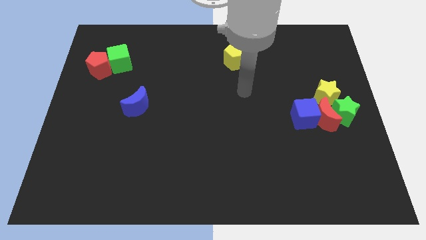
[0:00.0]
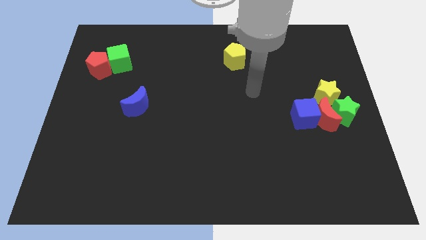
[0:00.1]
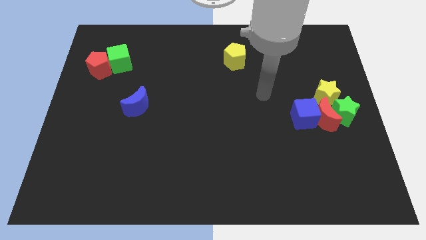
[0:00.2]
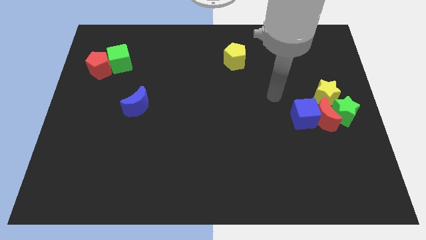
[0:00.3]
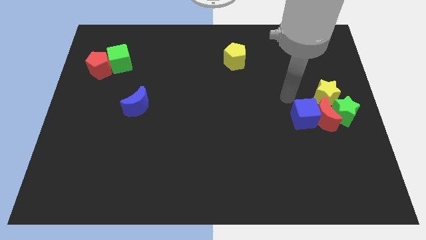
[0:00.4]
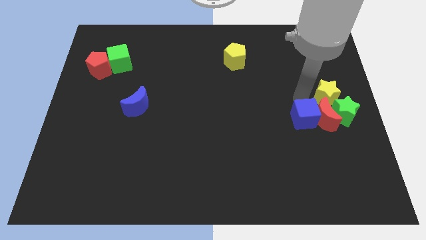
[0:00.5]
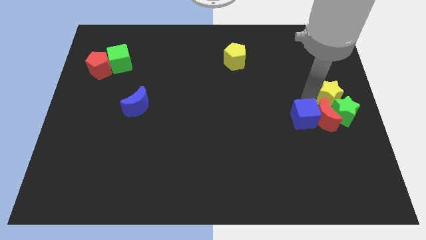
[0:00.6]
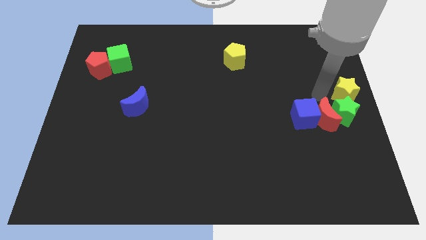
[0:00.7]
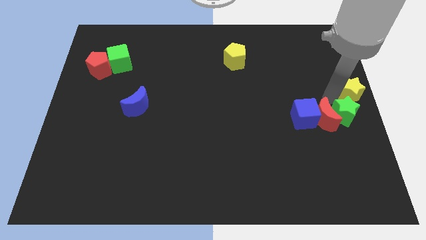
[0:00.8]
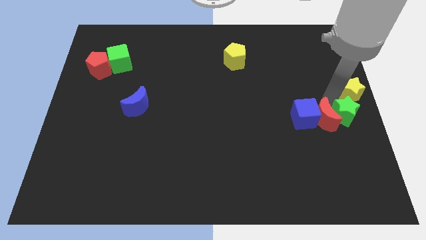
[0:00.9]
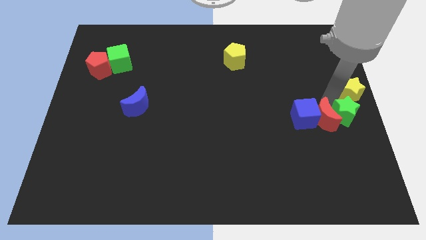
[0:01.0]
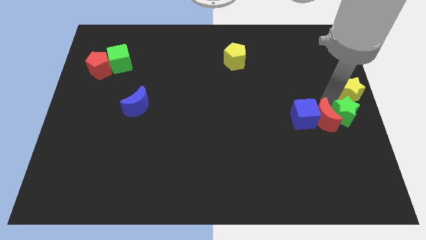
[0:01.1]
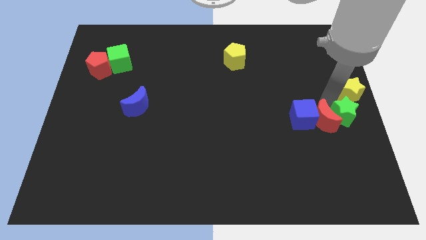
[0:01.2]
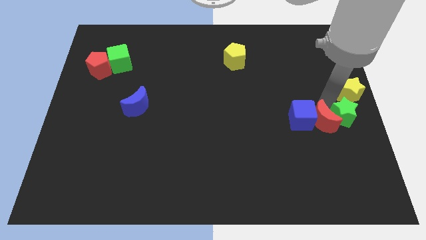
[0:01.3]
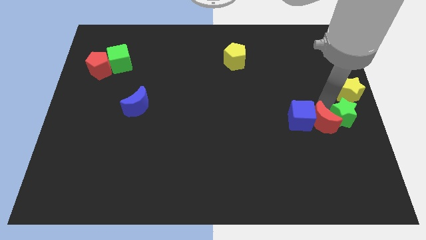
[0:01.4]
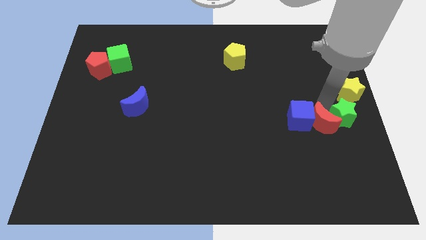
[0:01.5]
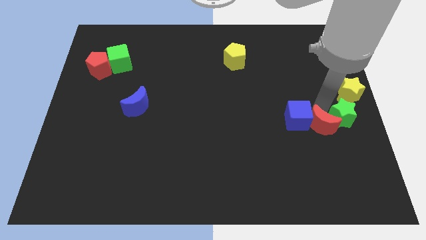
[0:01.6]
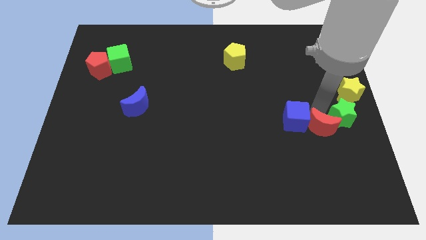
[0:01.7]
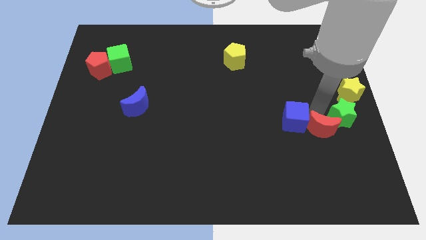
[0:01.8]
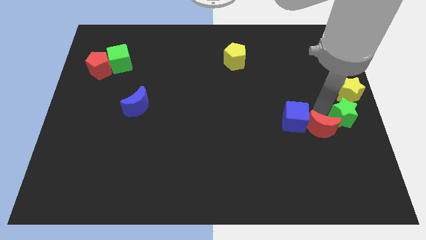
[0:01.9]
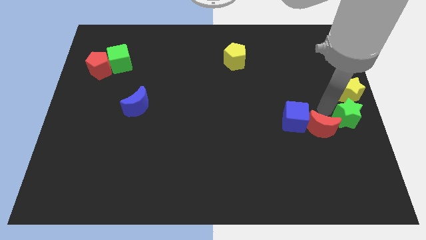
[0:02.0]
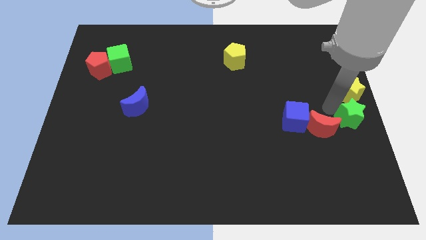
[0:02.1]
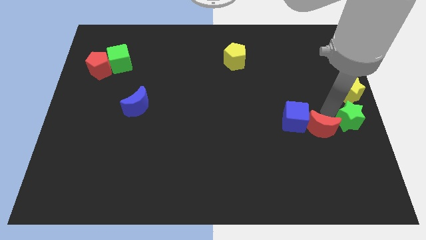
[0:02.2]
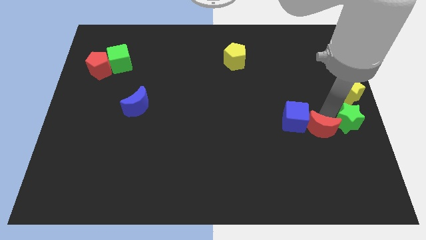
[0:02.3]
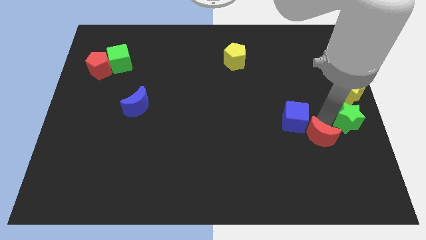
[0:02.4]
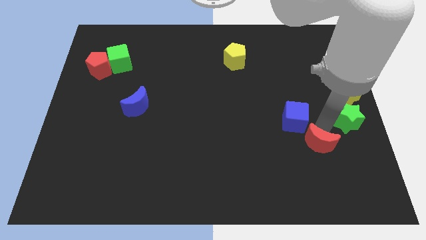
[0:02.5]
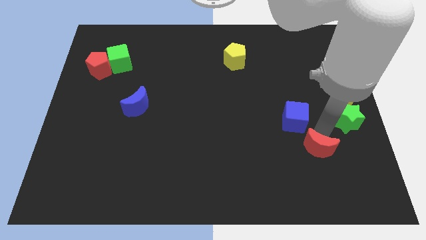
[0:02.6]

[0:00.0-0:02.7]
pull the red moon apart from the green star, blue cube, and yellow star

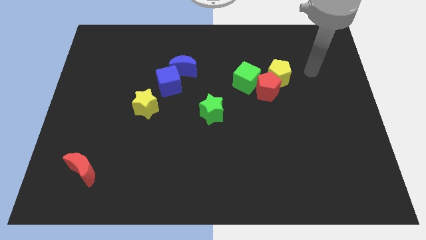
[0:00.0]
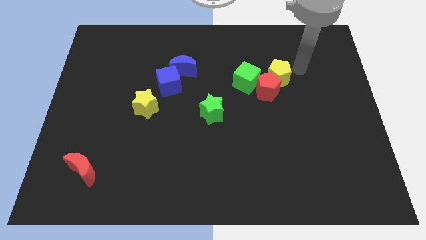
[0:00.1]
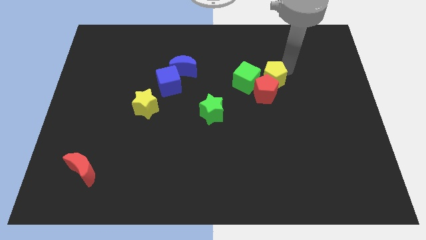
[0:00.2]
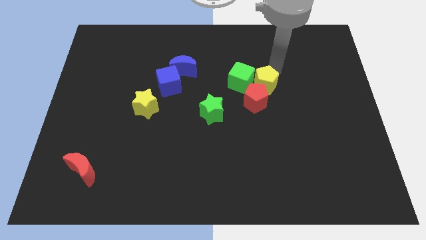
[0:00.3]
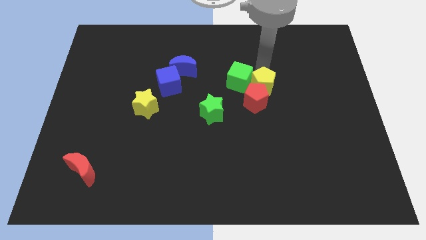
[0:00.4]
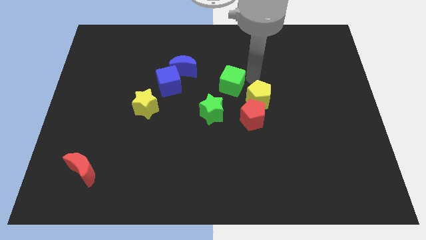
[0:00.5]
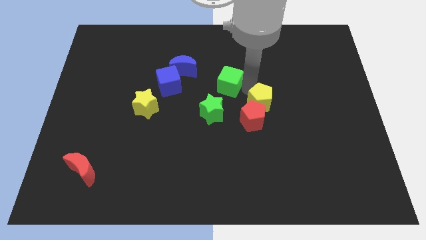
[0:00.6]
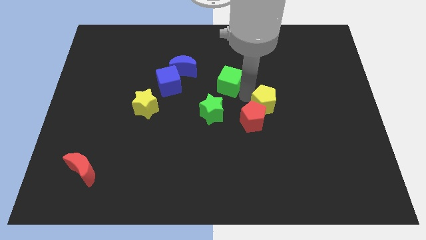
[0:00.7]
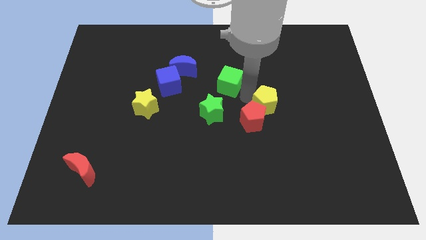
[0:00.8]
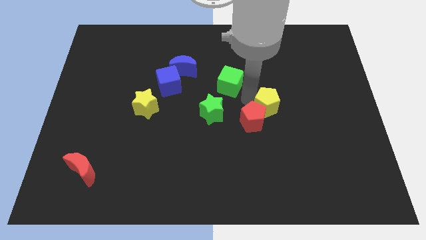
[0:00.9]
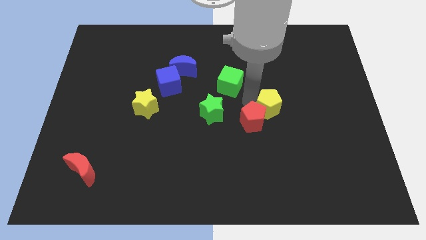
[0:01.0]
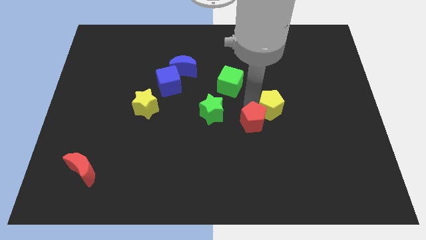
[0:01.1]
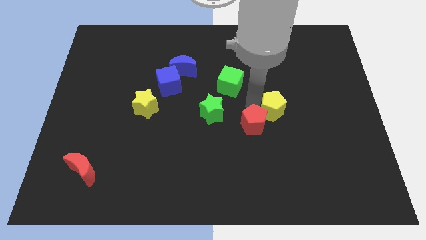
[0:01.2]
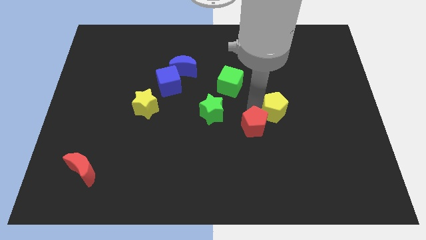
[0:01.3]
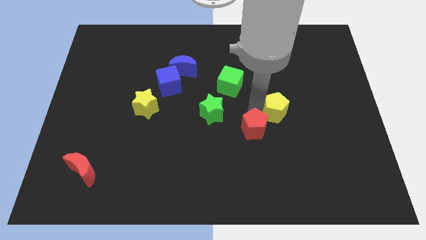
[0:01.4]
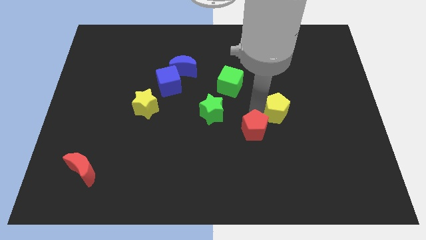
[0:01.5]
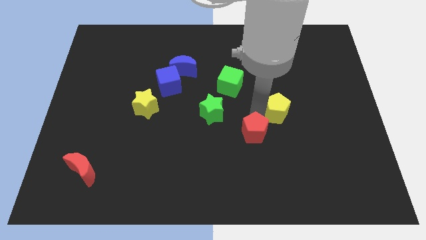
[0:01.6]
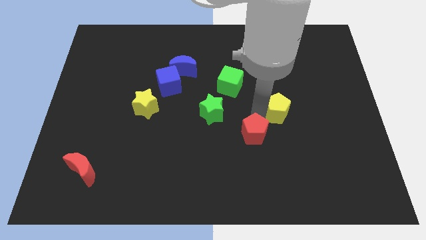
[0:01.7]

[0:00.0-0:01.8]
pull the red pentagon apart from the yellow pentagon and green cube

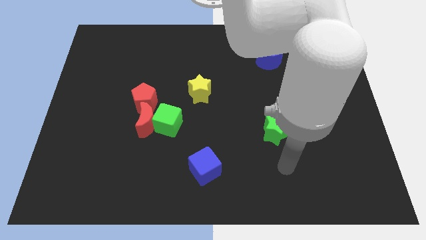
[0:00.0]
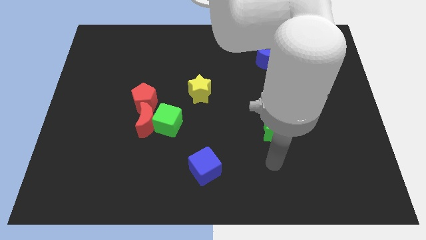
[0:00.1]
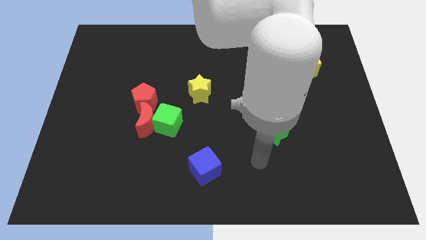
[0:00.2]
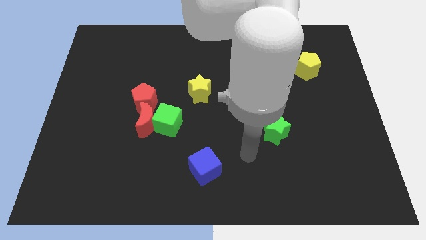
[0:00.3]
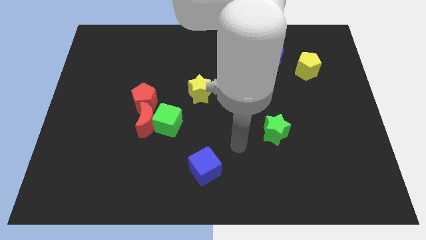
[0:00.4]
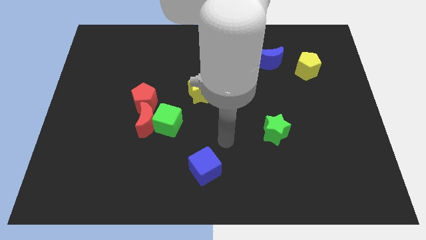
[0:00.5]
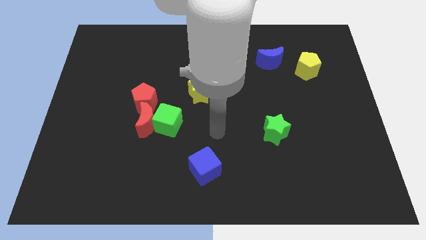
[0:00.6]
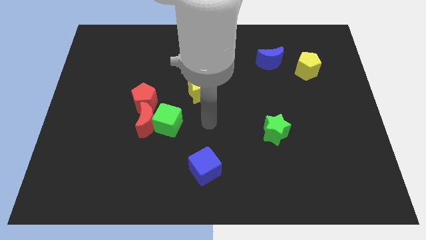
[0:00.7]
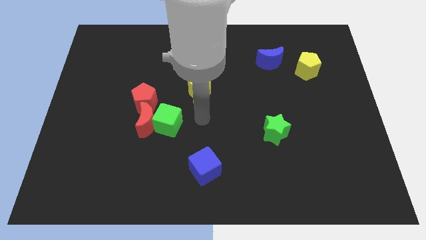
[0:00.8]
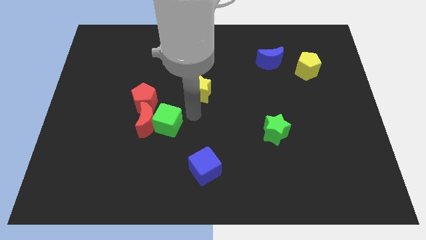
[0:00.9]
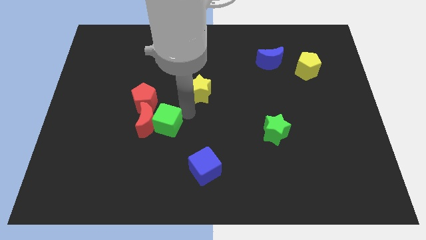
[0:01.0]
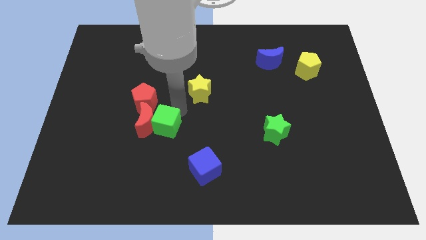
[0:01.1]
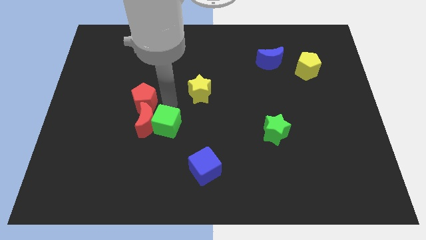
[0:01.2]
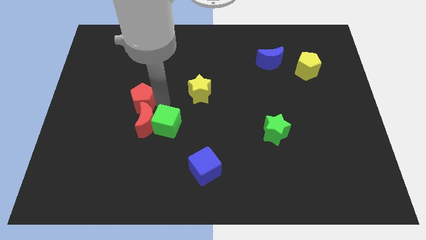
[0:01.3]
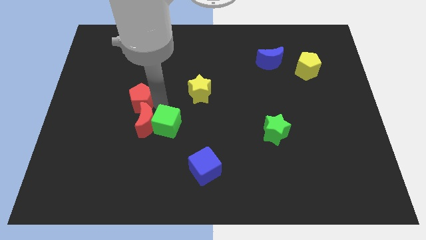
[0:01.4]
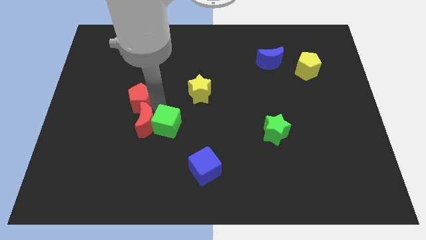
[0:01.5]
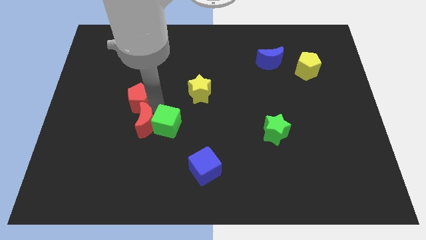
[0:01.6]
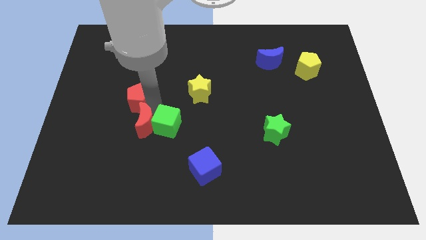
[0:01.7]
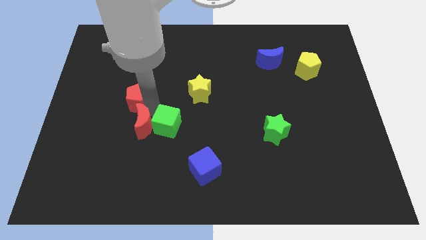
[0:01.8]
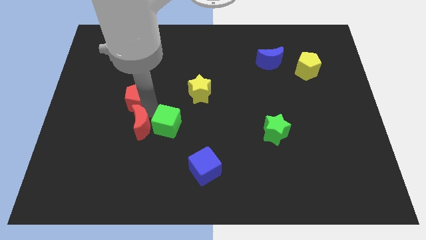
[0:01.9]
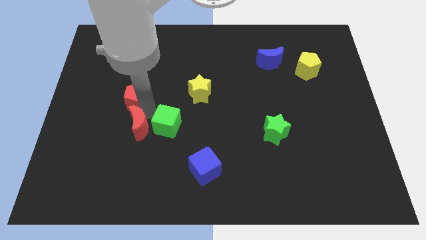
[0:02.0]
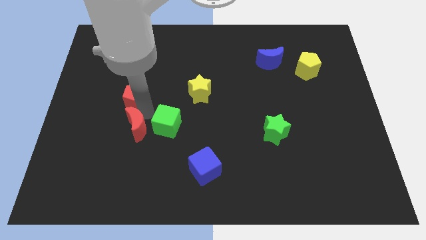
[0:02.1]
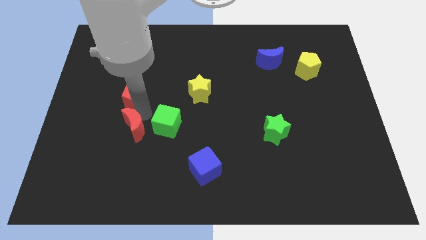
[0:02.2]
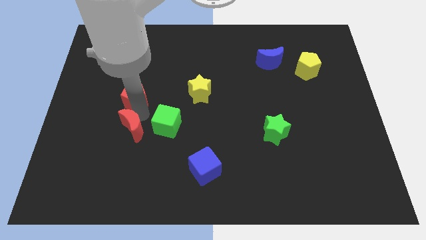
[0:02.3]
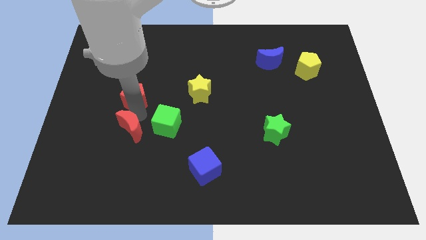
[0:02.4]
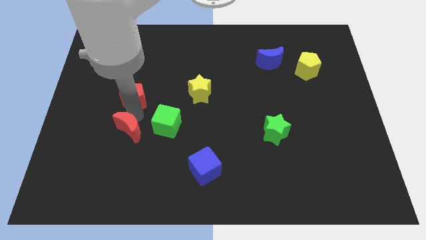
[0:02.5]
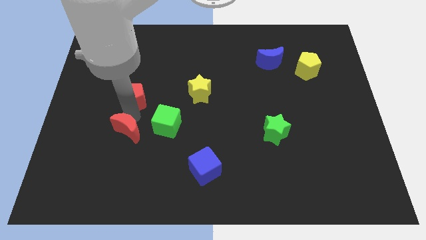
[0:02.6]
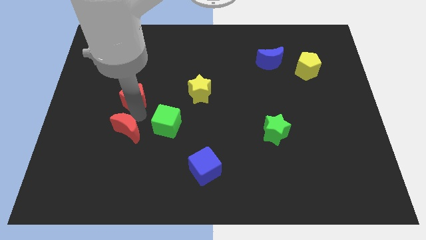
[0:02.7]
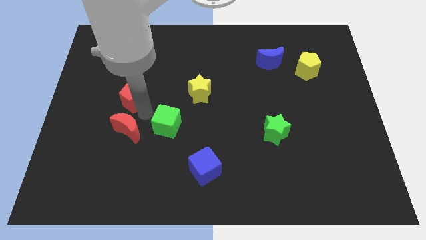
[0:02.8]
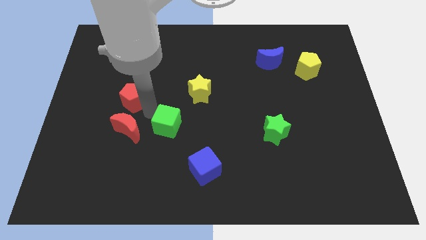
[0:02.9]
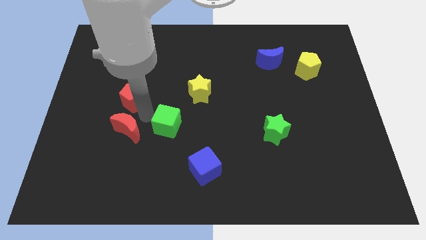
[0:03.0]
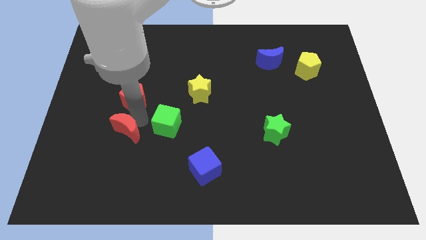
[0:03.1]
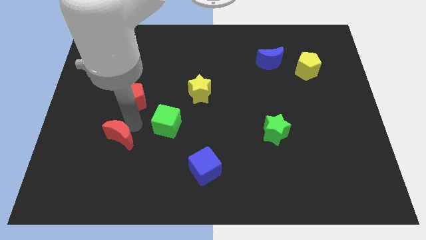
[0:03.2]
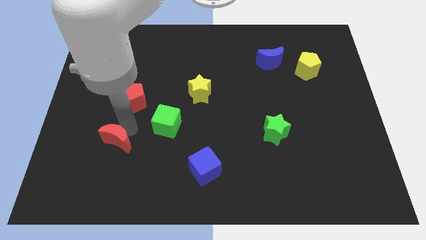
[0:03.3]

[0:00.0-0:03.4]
move the red moon away from the green cube and red pentagon

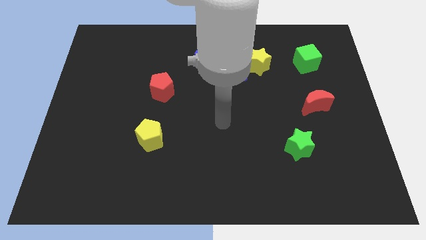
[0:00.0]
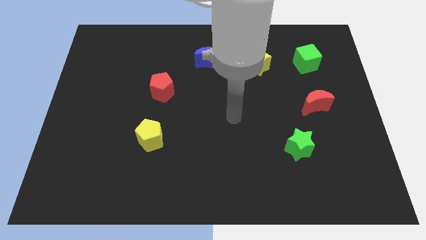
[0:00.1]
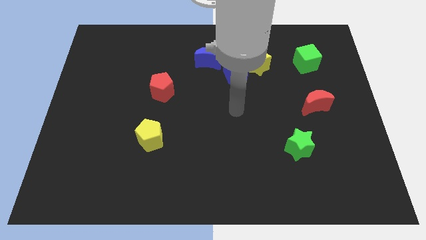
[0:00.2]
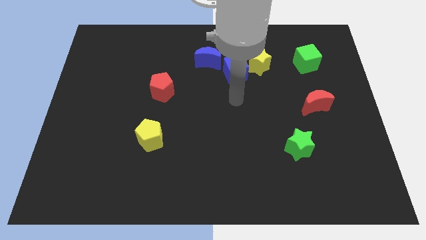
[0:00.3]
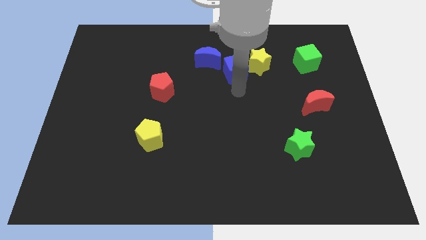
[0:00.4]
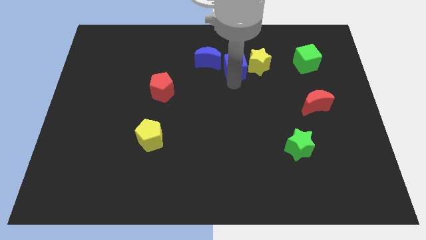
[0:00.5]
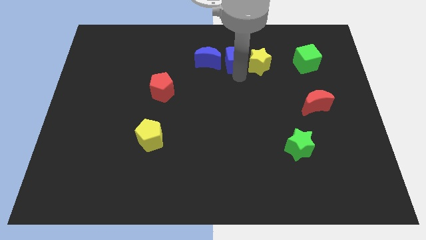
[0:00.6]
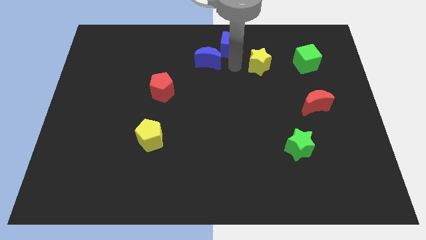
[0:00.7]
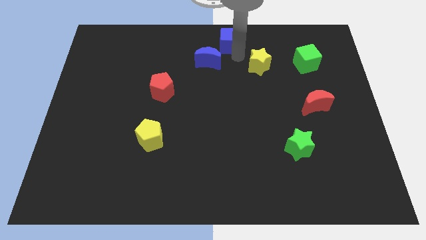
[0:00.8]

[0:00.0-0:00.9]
pull the yellow star apart from the blue cube

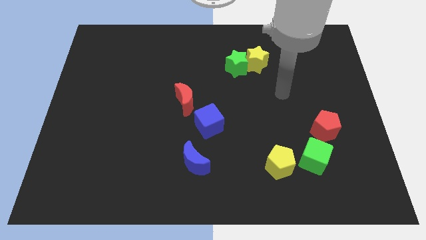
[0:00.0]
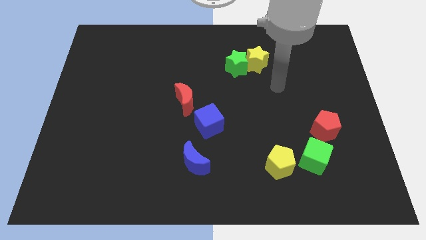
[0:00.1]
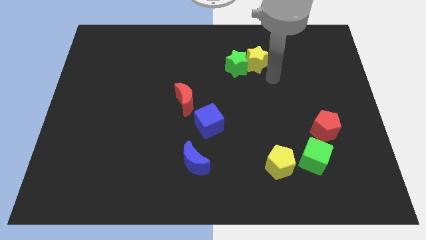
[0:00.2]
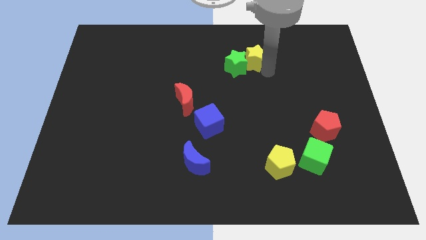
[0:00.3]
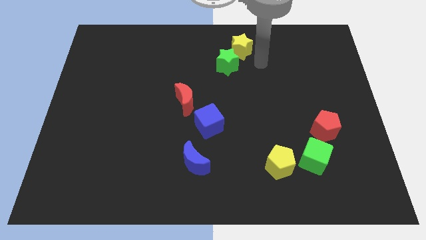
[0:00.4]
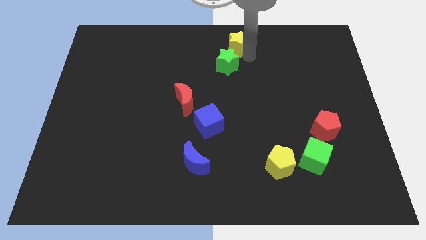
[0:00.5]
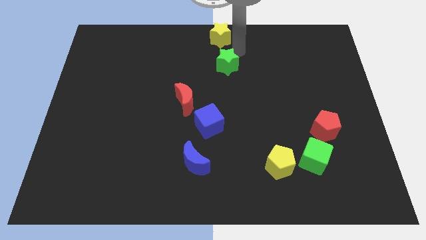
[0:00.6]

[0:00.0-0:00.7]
separate the green star from the yellow star
